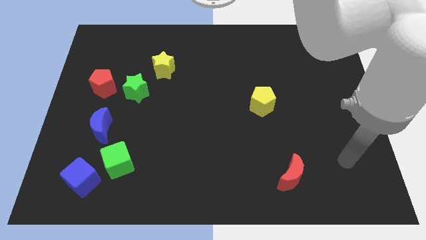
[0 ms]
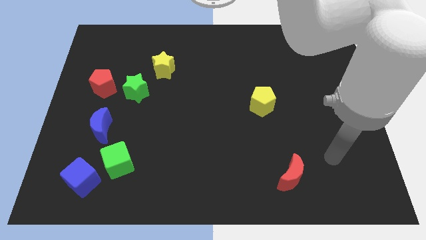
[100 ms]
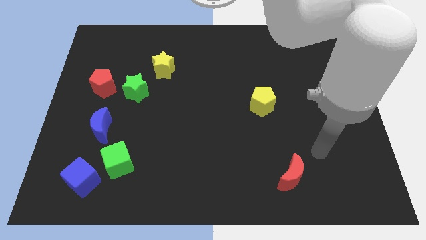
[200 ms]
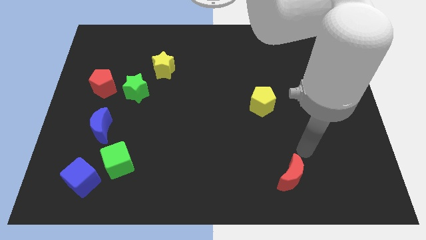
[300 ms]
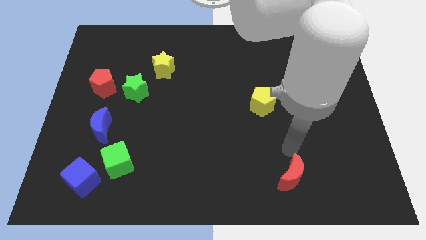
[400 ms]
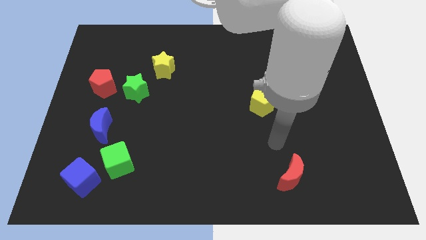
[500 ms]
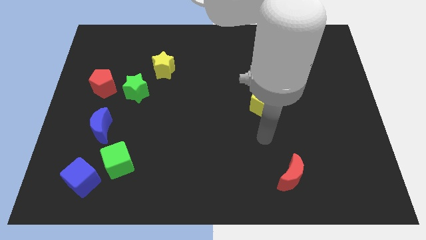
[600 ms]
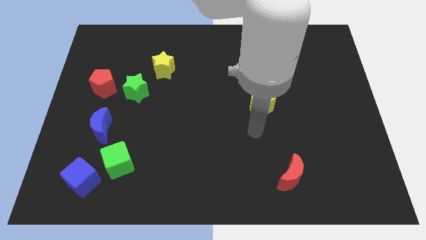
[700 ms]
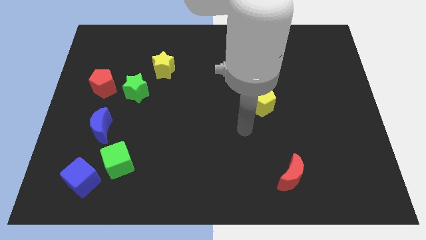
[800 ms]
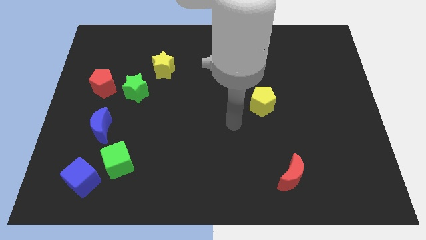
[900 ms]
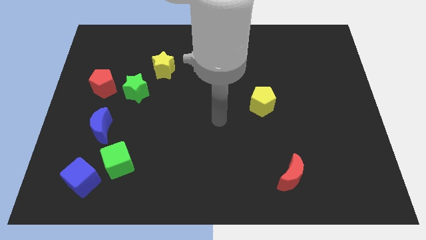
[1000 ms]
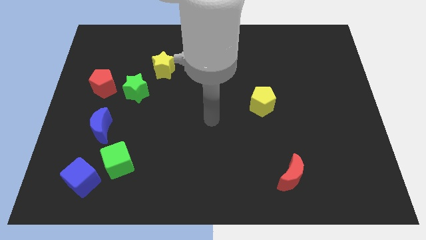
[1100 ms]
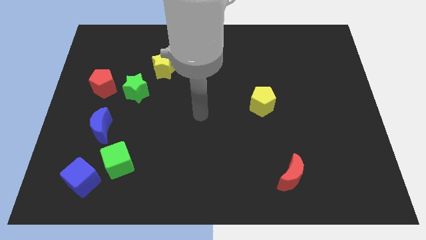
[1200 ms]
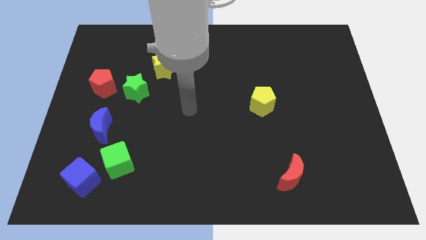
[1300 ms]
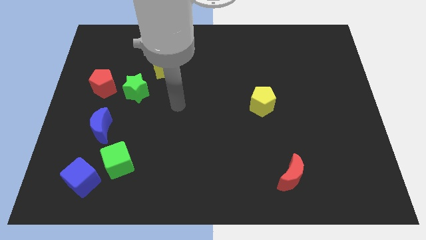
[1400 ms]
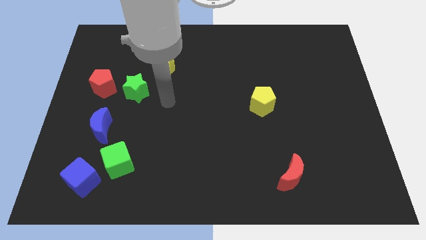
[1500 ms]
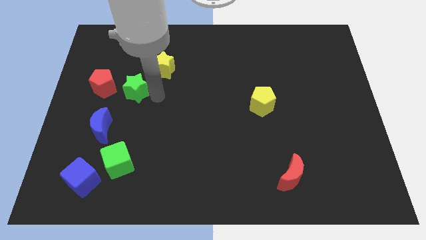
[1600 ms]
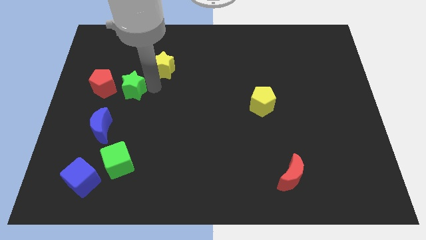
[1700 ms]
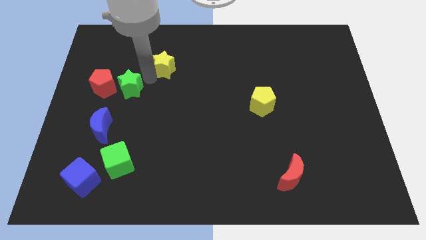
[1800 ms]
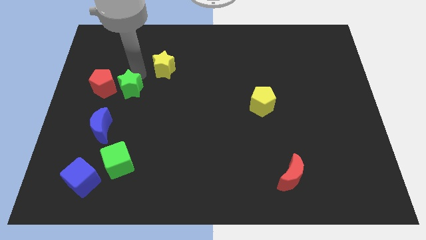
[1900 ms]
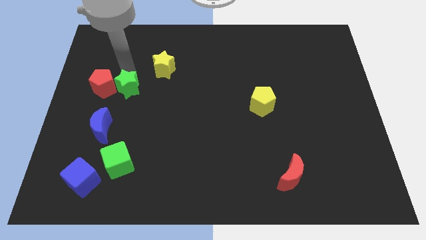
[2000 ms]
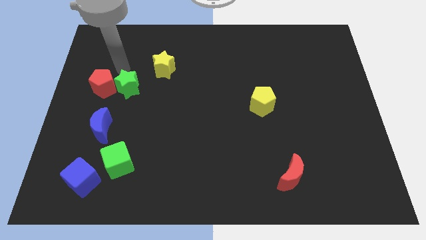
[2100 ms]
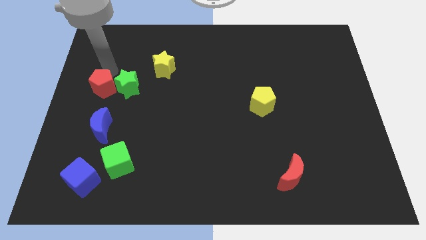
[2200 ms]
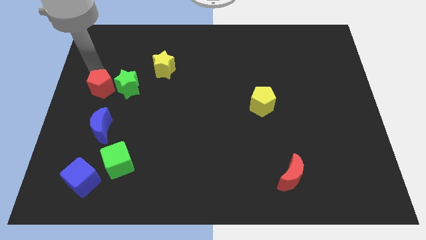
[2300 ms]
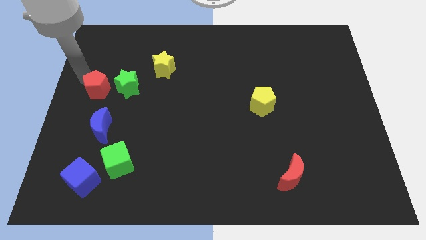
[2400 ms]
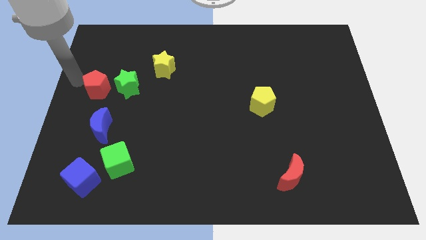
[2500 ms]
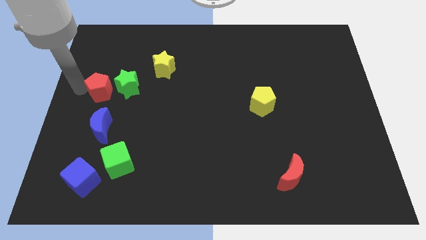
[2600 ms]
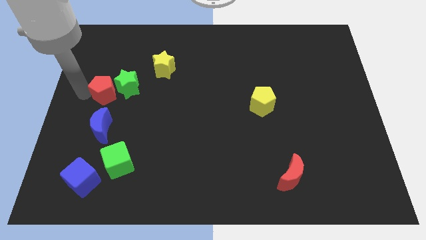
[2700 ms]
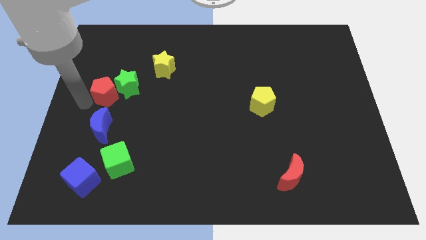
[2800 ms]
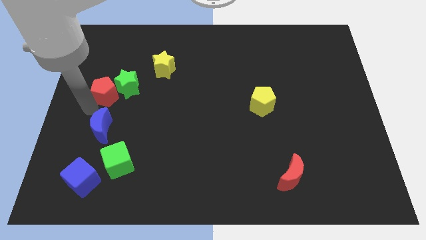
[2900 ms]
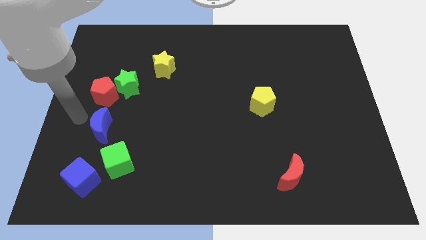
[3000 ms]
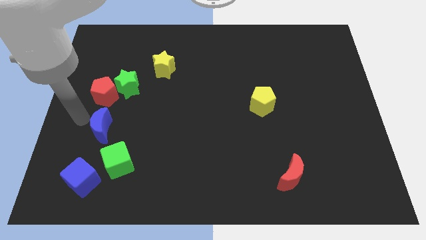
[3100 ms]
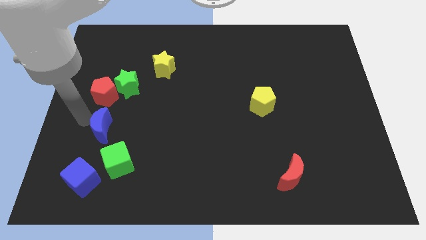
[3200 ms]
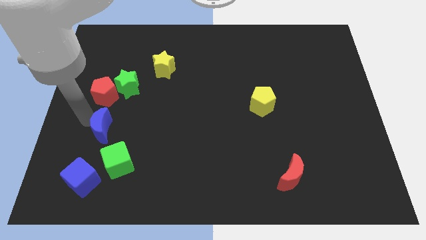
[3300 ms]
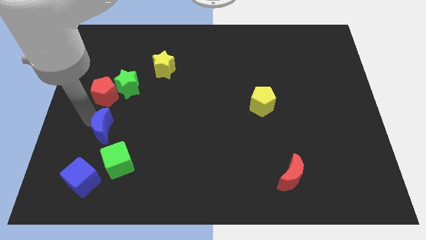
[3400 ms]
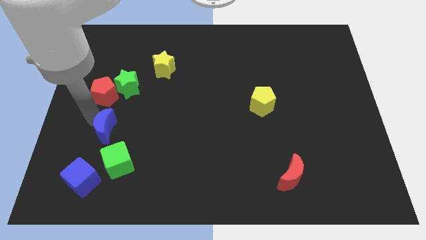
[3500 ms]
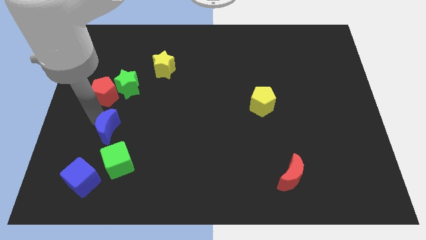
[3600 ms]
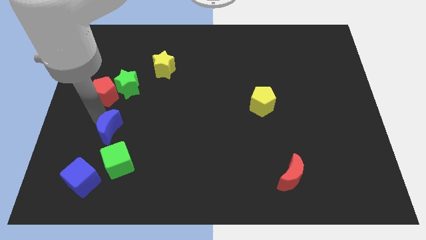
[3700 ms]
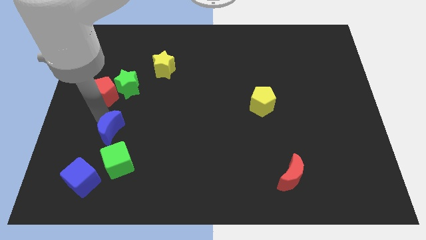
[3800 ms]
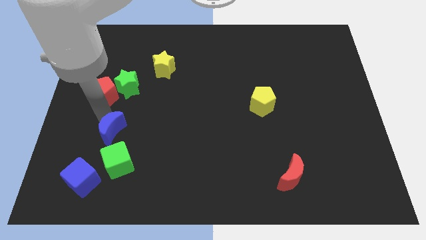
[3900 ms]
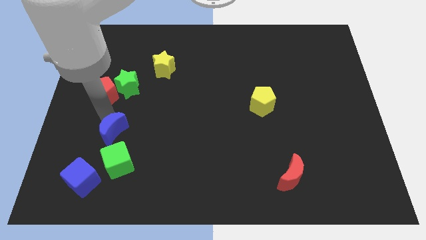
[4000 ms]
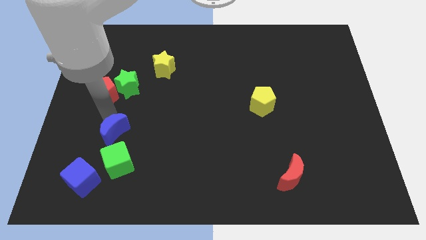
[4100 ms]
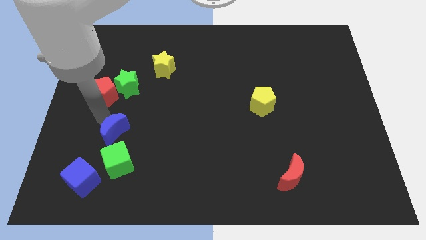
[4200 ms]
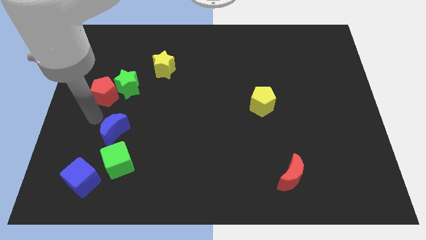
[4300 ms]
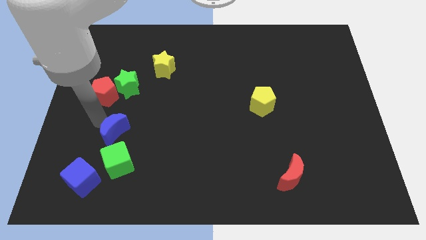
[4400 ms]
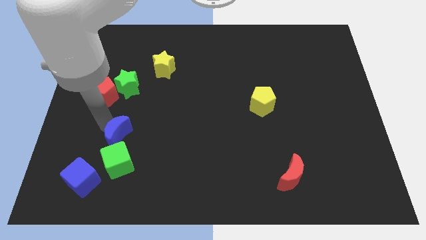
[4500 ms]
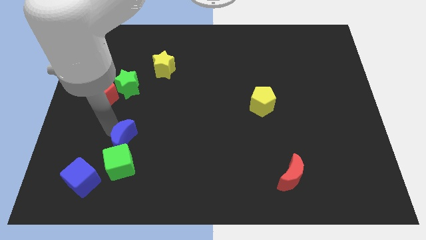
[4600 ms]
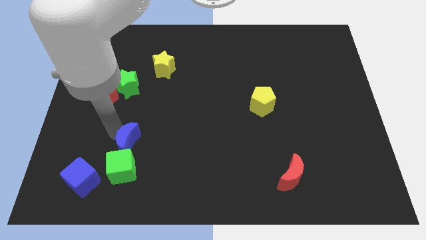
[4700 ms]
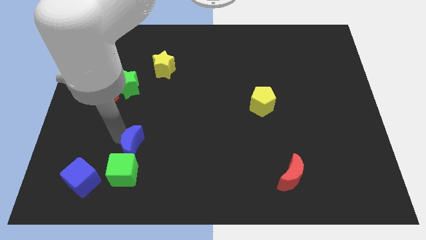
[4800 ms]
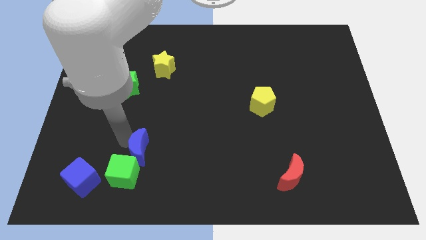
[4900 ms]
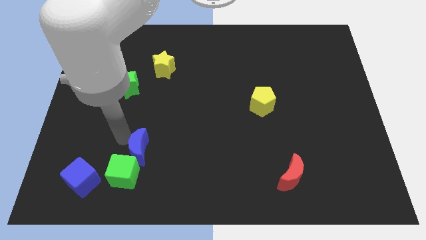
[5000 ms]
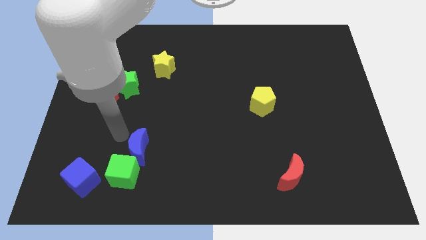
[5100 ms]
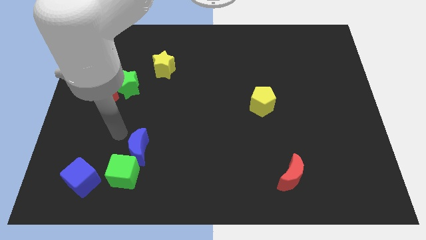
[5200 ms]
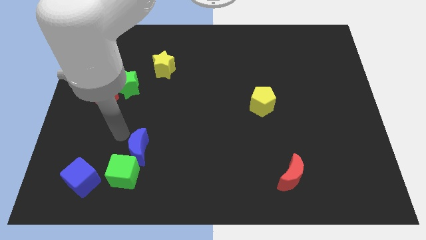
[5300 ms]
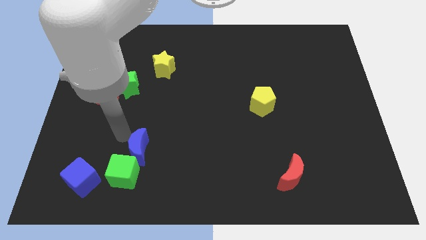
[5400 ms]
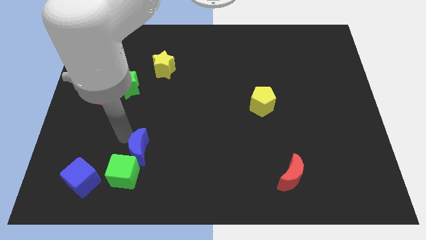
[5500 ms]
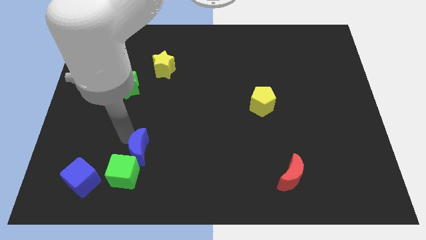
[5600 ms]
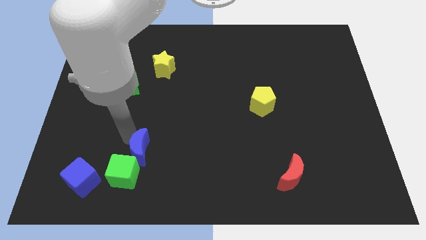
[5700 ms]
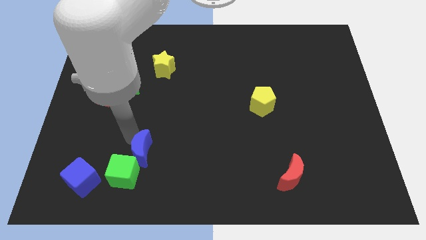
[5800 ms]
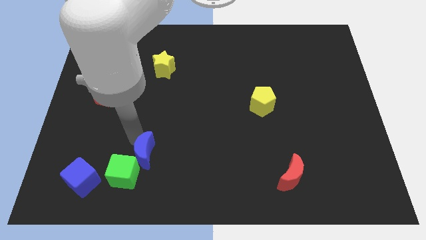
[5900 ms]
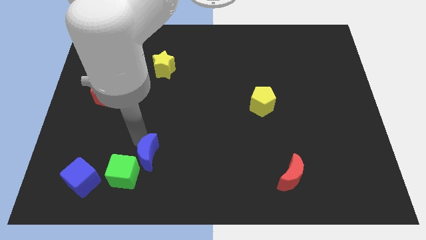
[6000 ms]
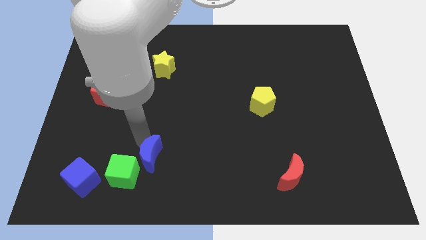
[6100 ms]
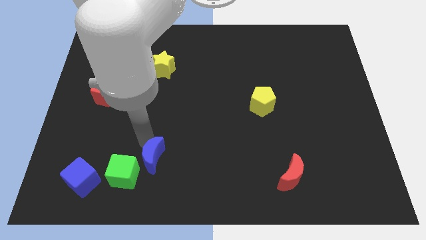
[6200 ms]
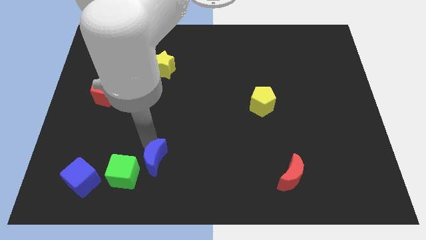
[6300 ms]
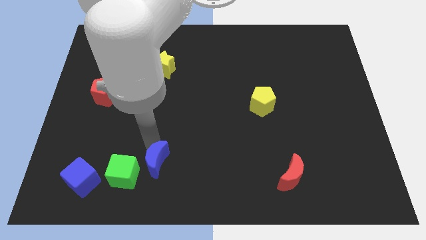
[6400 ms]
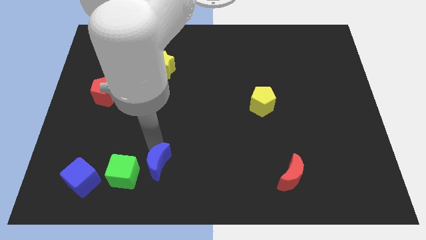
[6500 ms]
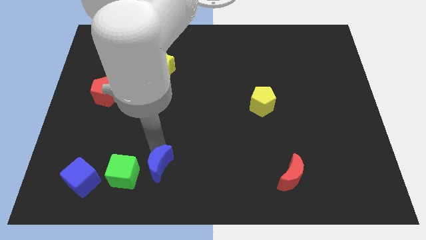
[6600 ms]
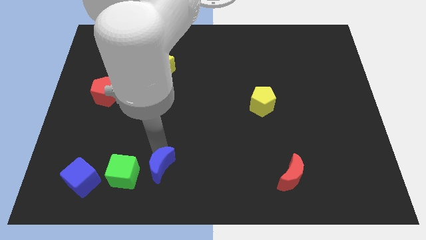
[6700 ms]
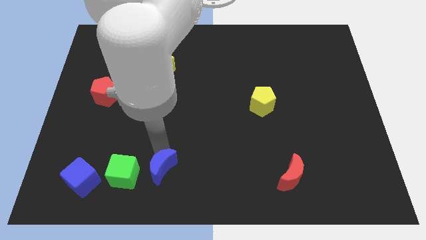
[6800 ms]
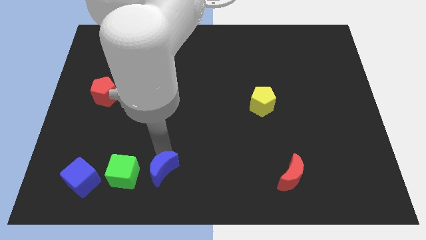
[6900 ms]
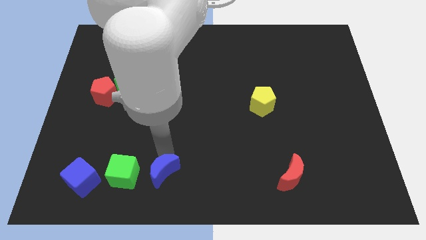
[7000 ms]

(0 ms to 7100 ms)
move the blue moon to the bottom side

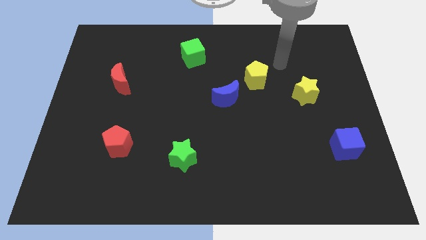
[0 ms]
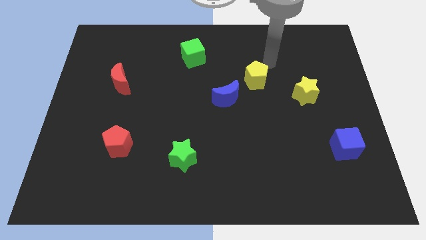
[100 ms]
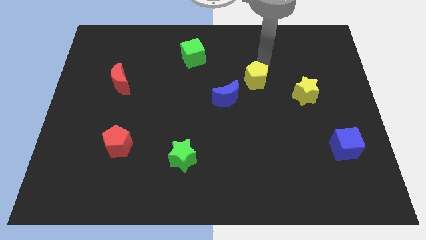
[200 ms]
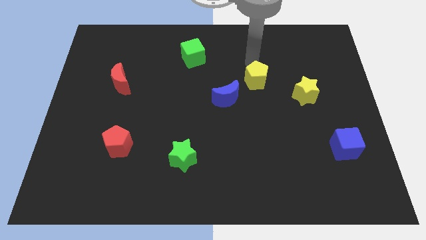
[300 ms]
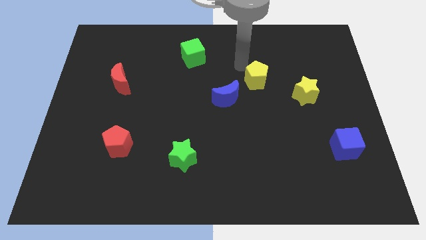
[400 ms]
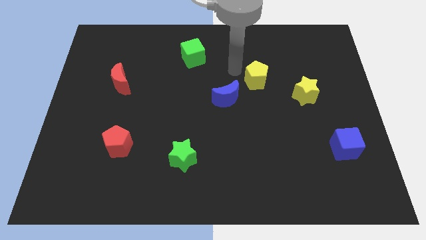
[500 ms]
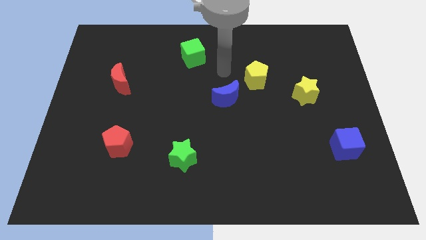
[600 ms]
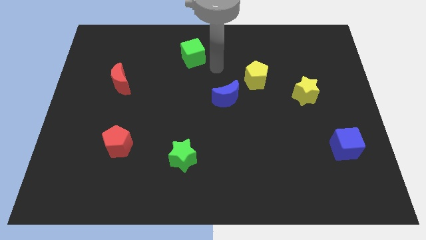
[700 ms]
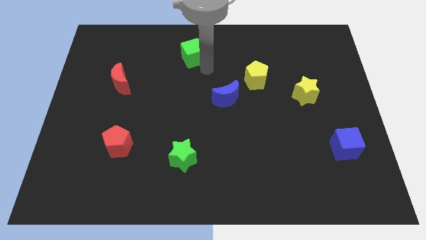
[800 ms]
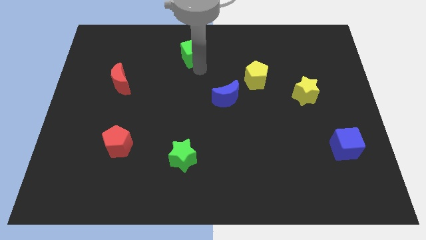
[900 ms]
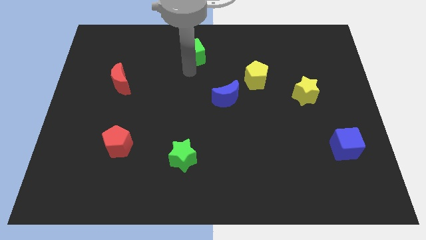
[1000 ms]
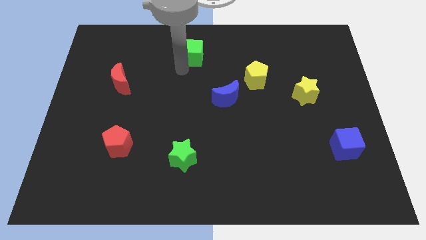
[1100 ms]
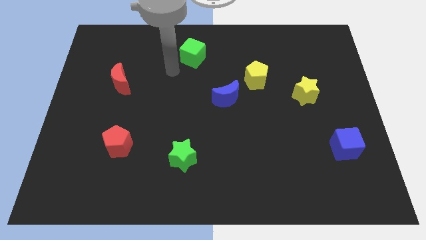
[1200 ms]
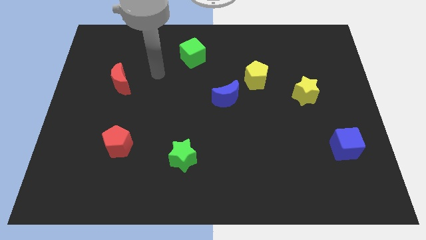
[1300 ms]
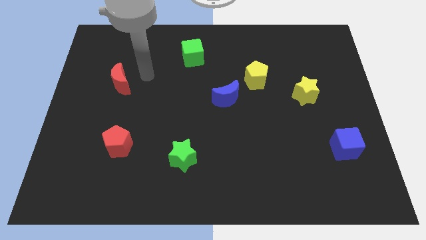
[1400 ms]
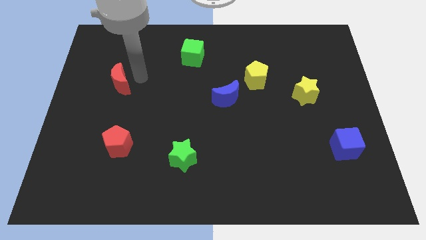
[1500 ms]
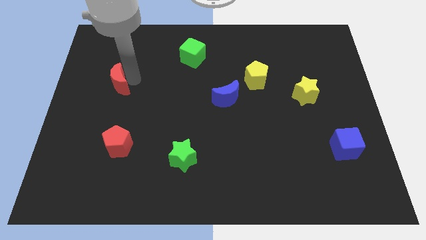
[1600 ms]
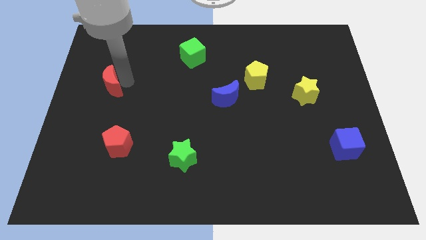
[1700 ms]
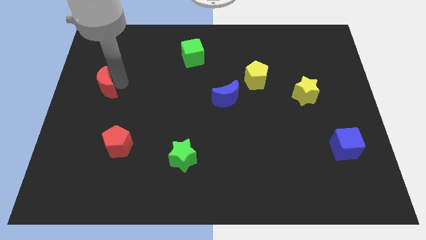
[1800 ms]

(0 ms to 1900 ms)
move the red moon to the center left
